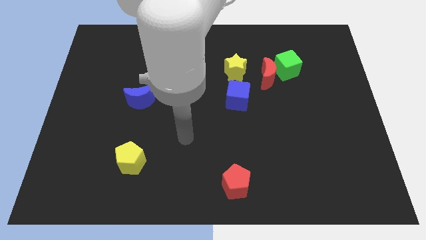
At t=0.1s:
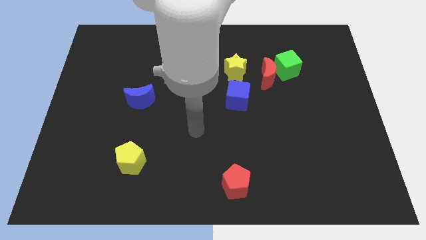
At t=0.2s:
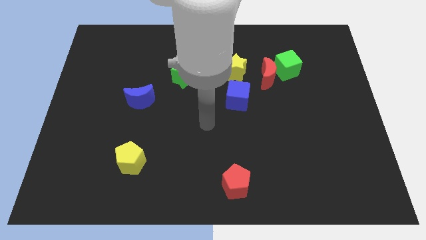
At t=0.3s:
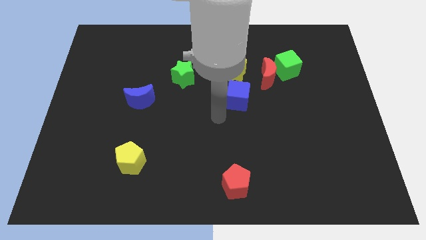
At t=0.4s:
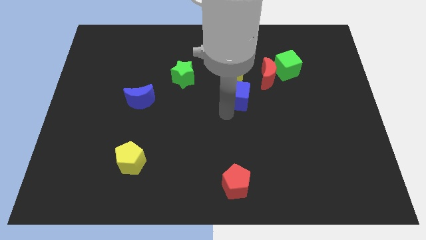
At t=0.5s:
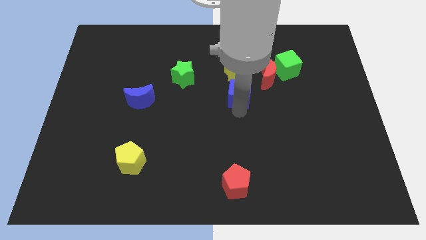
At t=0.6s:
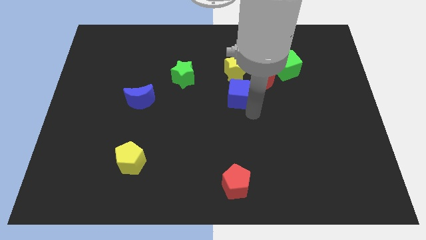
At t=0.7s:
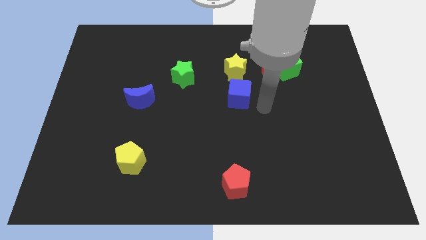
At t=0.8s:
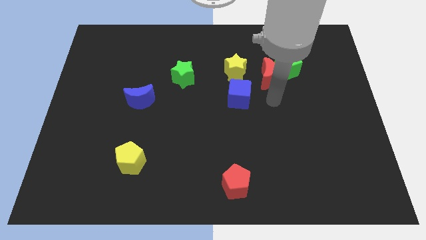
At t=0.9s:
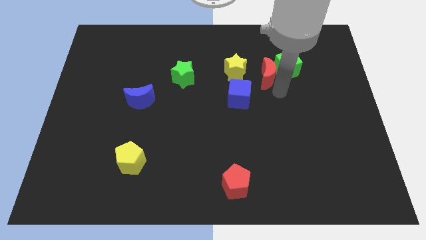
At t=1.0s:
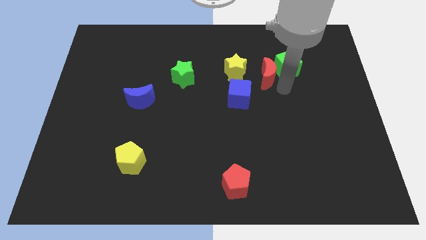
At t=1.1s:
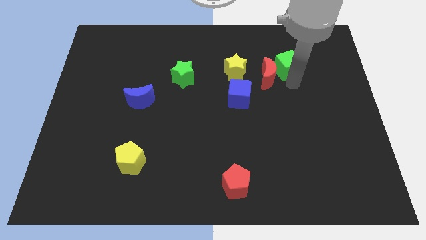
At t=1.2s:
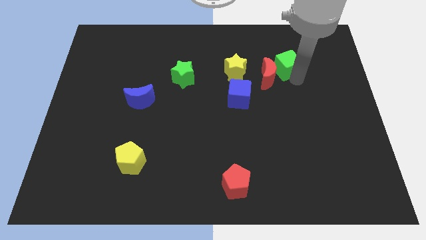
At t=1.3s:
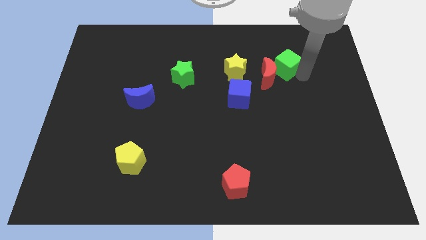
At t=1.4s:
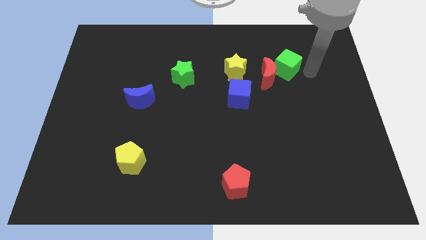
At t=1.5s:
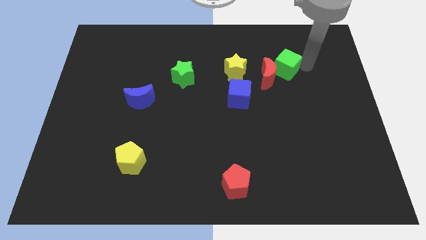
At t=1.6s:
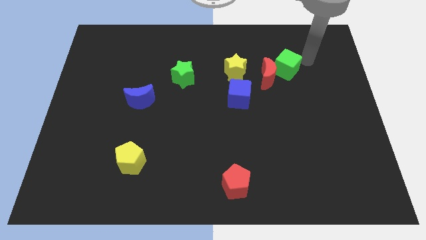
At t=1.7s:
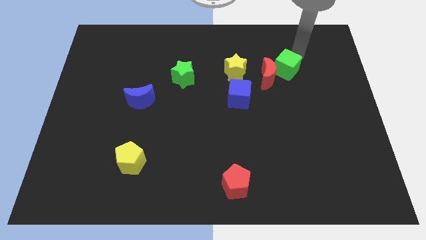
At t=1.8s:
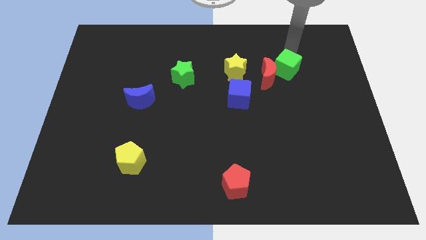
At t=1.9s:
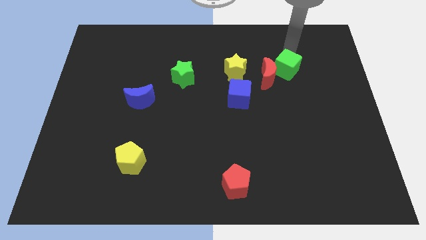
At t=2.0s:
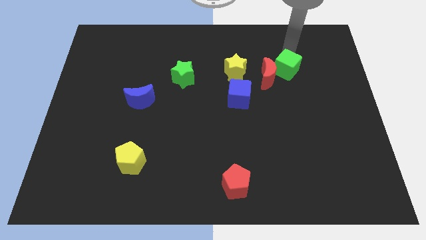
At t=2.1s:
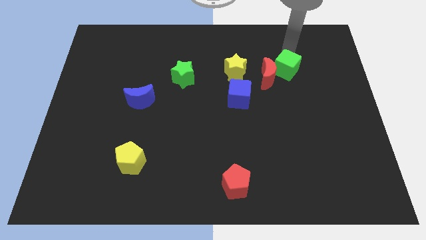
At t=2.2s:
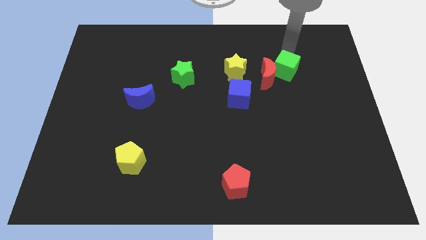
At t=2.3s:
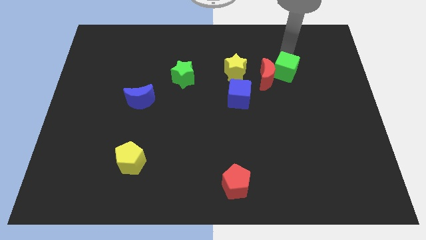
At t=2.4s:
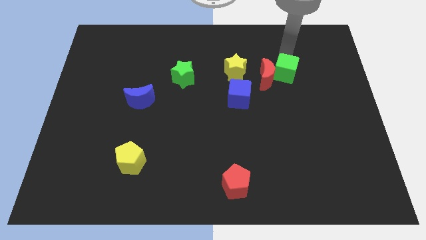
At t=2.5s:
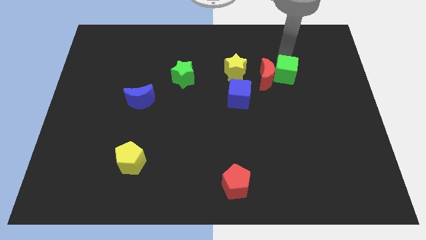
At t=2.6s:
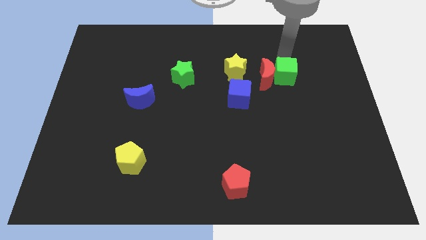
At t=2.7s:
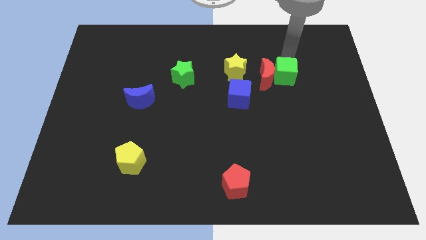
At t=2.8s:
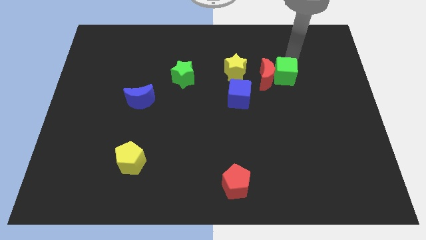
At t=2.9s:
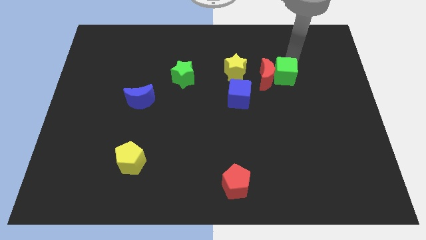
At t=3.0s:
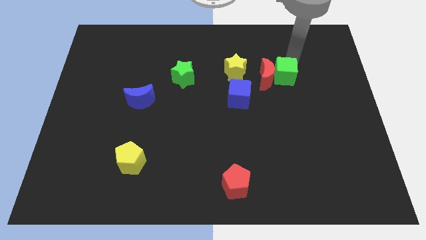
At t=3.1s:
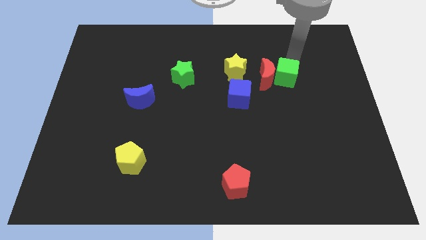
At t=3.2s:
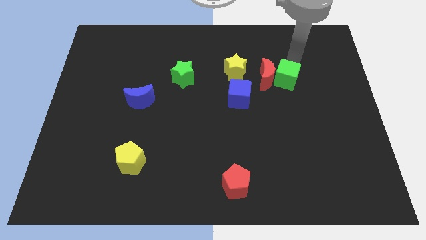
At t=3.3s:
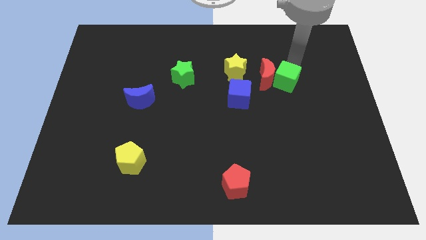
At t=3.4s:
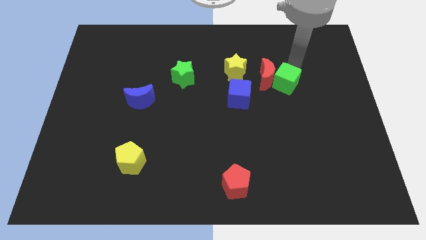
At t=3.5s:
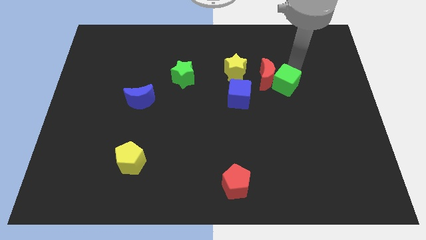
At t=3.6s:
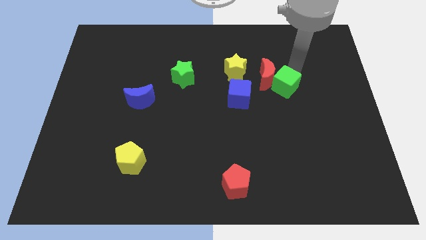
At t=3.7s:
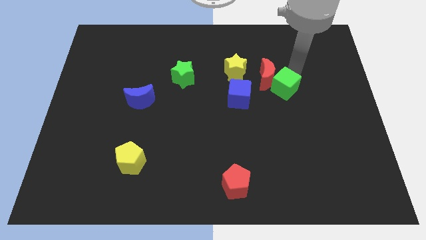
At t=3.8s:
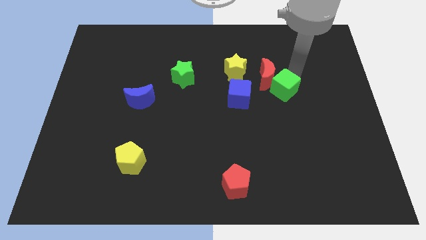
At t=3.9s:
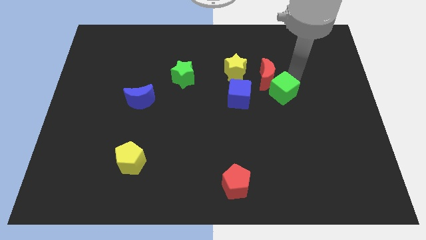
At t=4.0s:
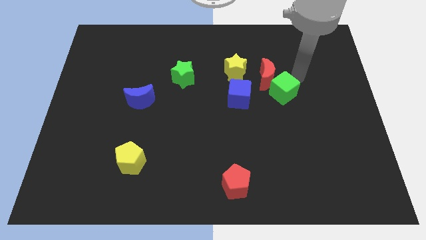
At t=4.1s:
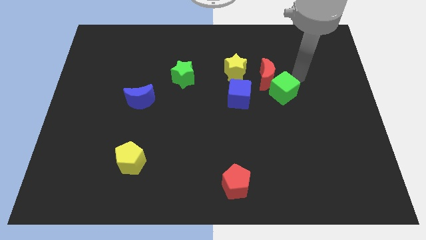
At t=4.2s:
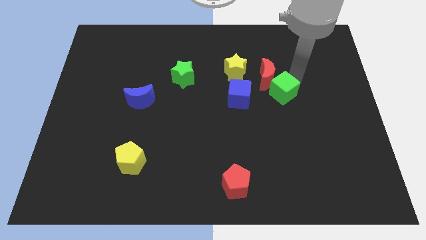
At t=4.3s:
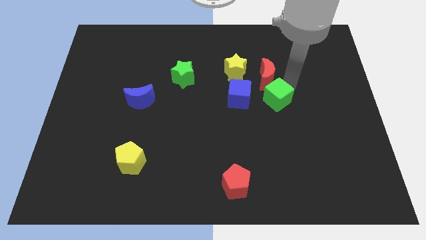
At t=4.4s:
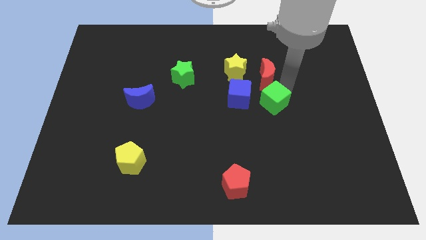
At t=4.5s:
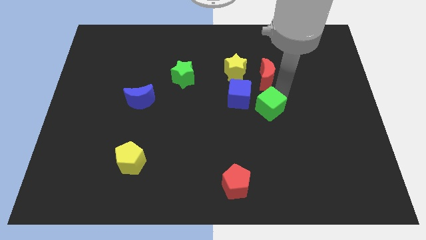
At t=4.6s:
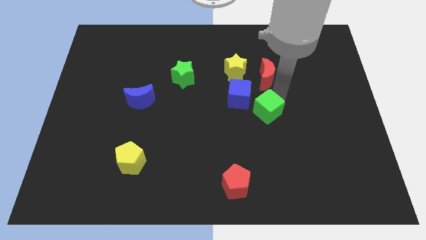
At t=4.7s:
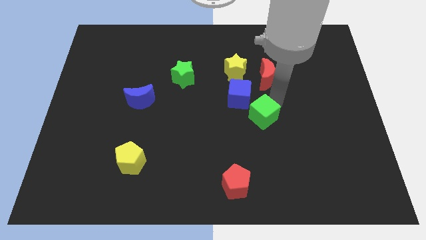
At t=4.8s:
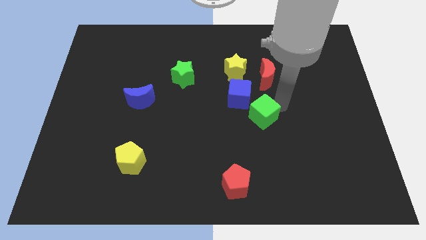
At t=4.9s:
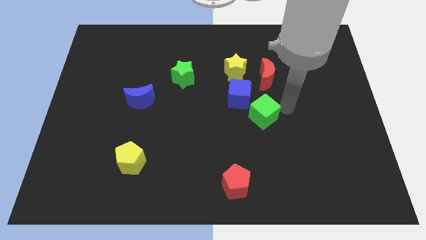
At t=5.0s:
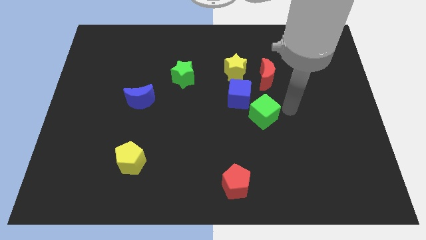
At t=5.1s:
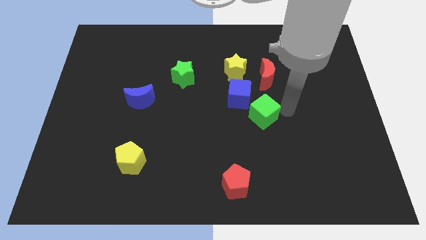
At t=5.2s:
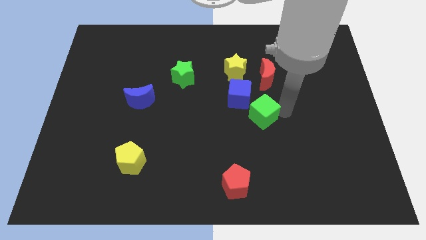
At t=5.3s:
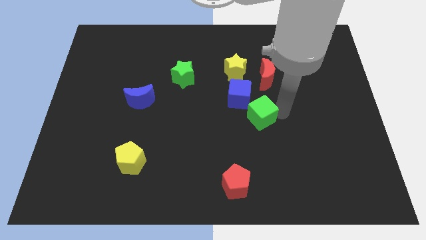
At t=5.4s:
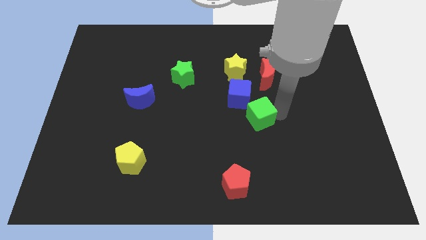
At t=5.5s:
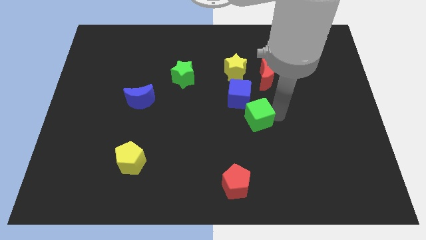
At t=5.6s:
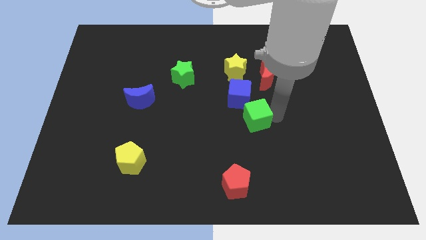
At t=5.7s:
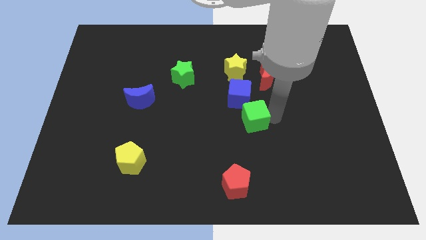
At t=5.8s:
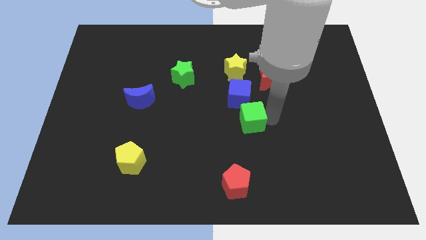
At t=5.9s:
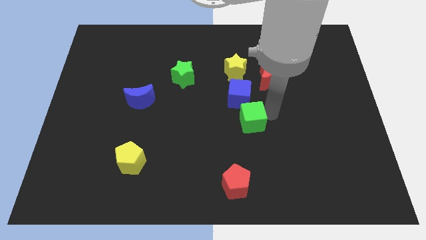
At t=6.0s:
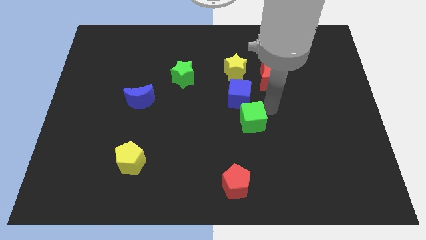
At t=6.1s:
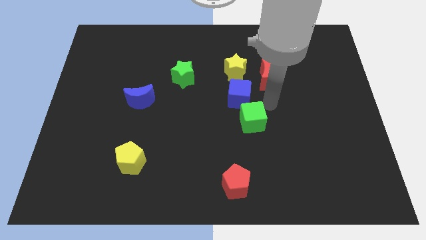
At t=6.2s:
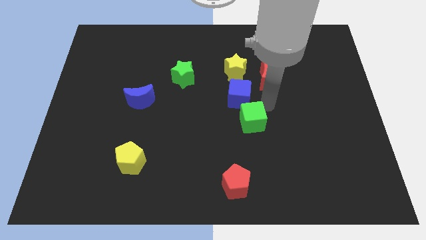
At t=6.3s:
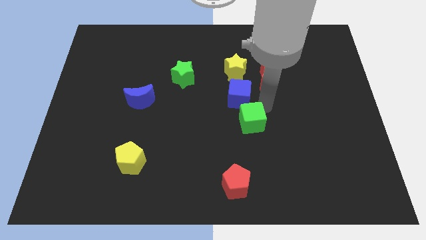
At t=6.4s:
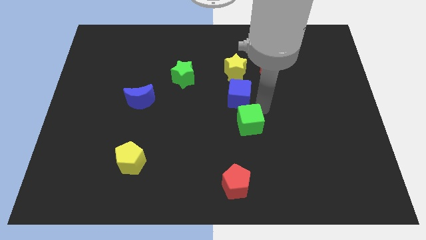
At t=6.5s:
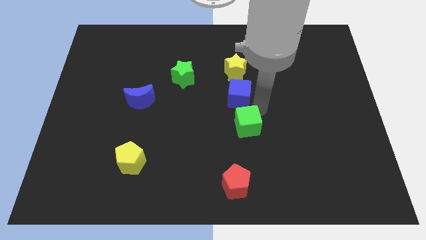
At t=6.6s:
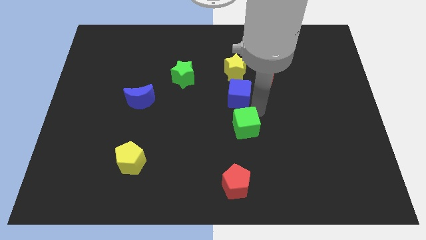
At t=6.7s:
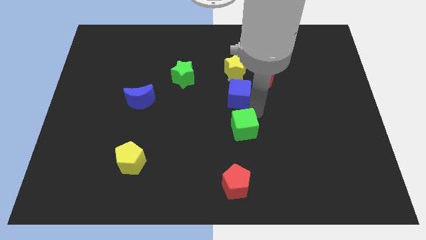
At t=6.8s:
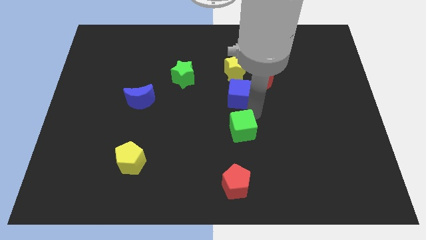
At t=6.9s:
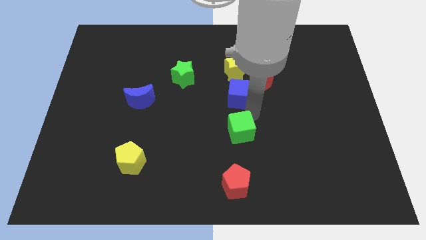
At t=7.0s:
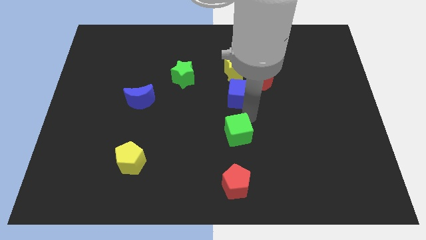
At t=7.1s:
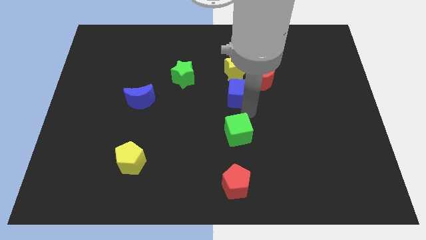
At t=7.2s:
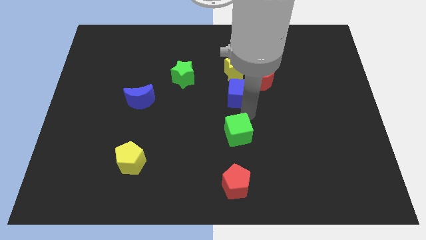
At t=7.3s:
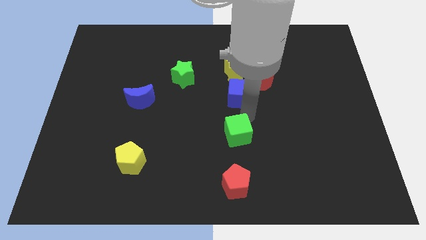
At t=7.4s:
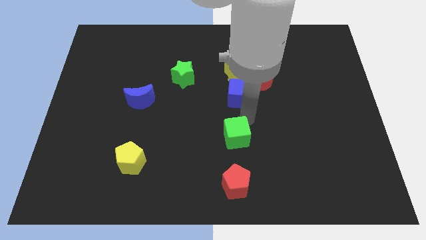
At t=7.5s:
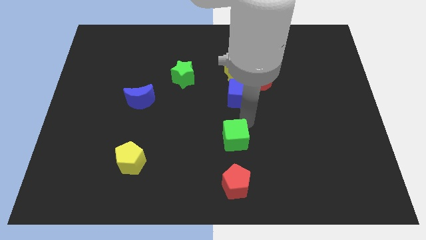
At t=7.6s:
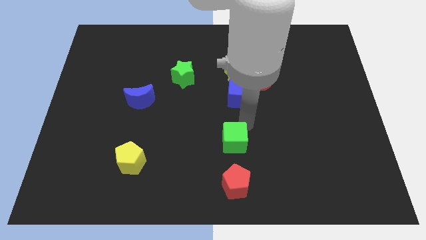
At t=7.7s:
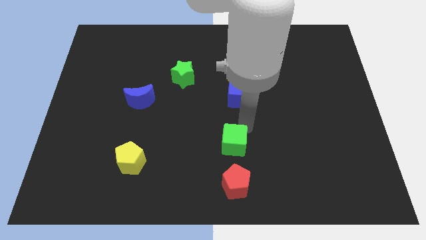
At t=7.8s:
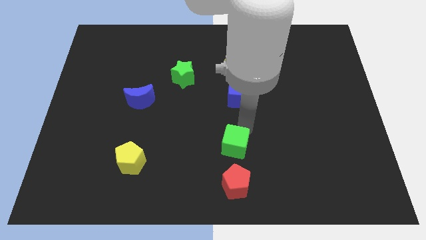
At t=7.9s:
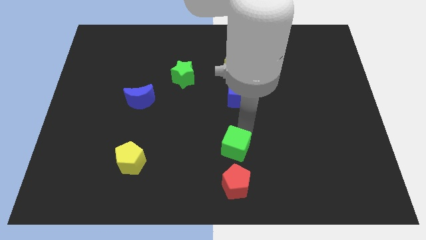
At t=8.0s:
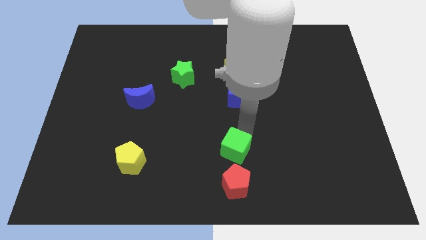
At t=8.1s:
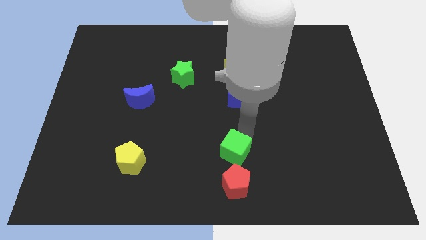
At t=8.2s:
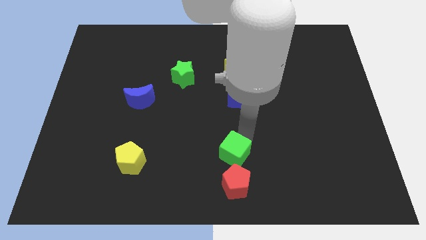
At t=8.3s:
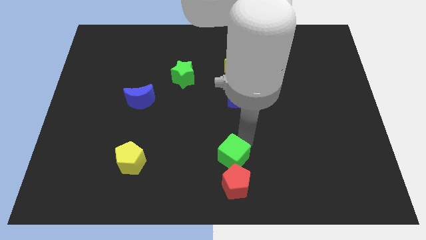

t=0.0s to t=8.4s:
slide the green cube to the bottom
